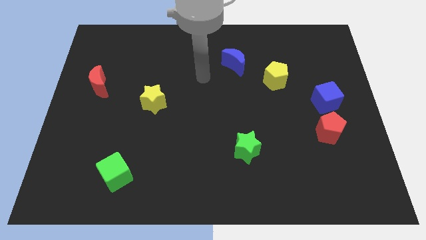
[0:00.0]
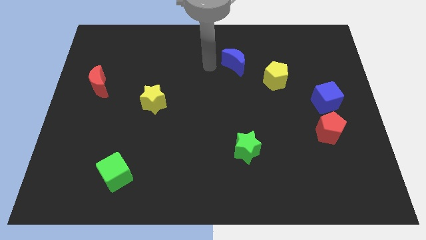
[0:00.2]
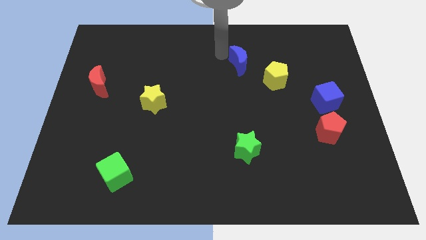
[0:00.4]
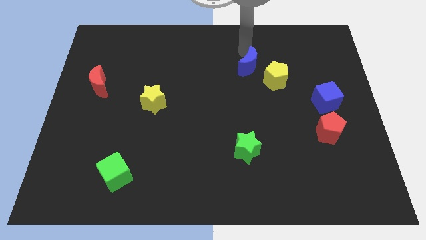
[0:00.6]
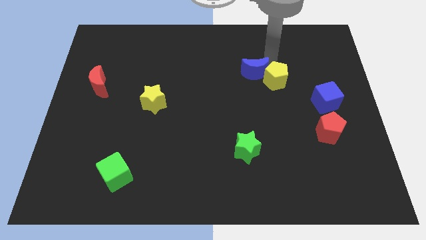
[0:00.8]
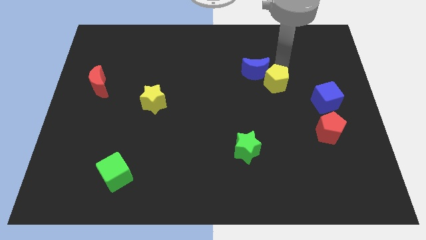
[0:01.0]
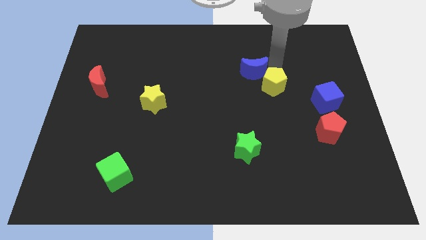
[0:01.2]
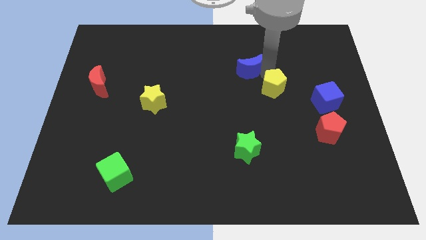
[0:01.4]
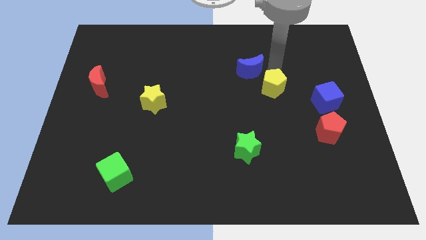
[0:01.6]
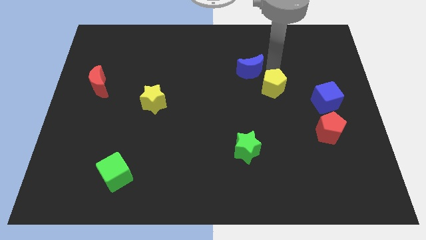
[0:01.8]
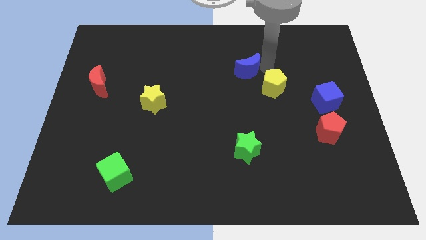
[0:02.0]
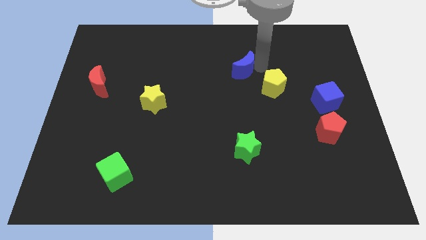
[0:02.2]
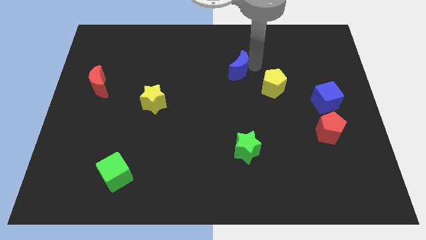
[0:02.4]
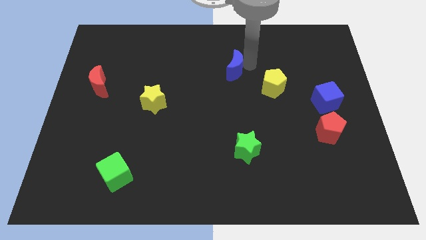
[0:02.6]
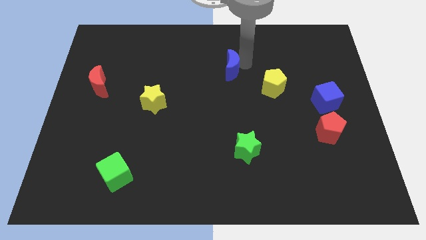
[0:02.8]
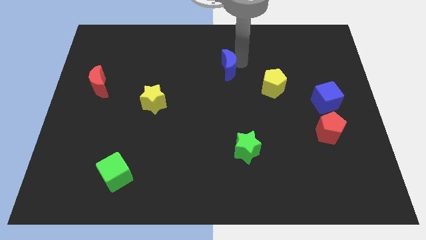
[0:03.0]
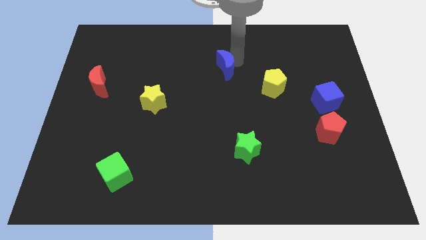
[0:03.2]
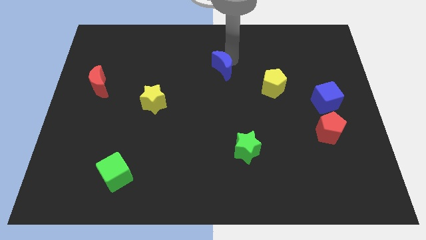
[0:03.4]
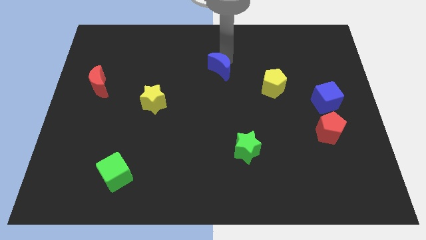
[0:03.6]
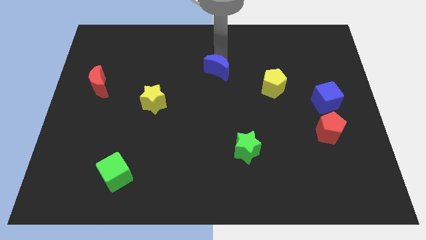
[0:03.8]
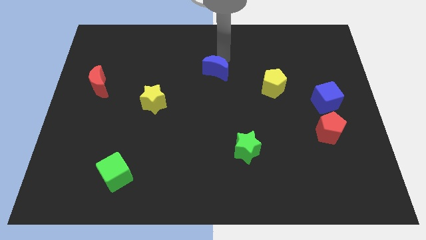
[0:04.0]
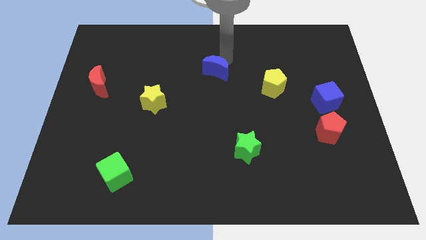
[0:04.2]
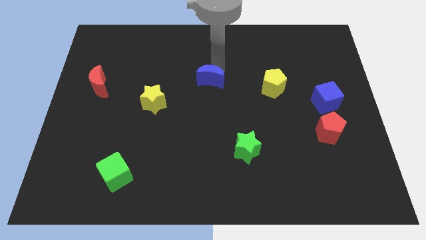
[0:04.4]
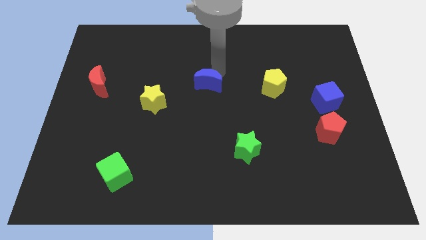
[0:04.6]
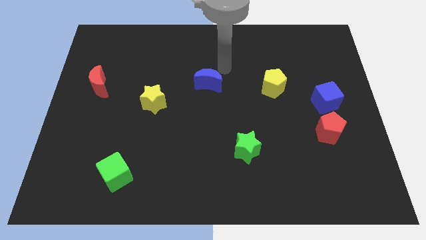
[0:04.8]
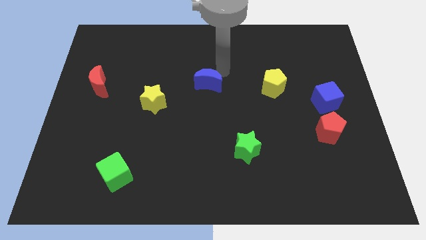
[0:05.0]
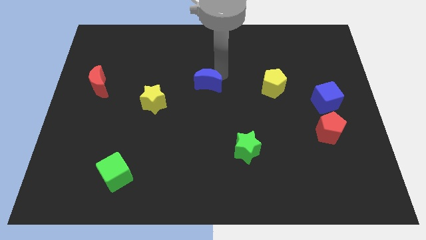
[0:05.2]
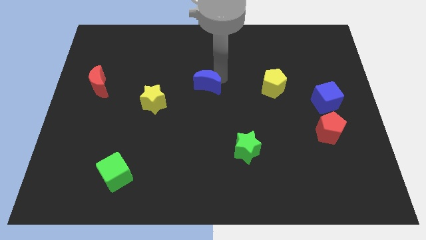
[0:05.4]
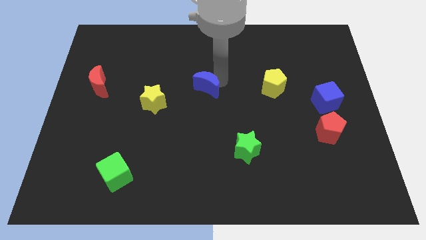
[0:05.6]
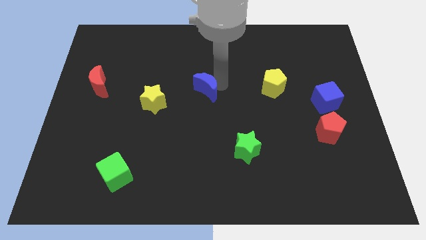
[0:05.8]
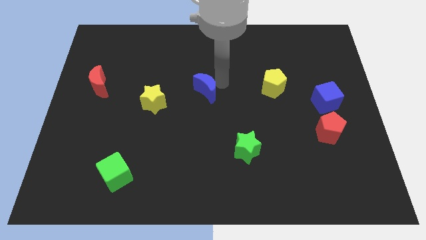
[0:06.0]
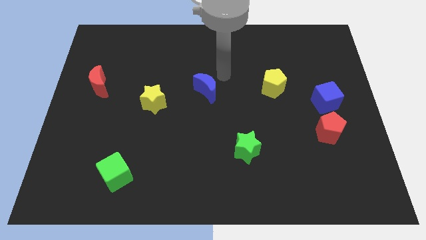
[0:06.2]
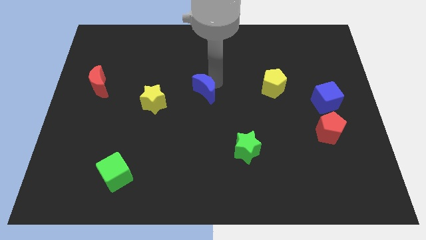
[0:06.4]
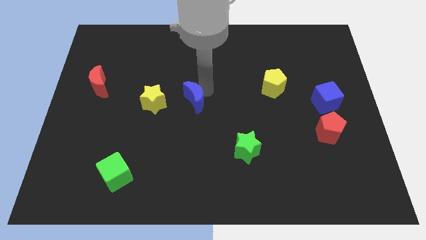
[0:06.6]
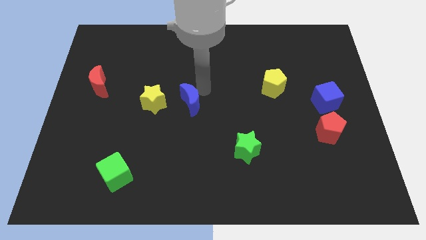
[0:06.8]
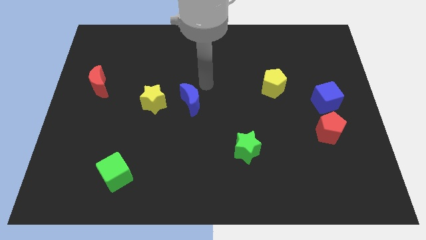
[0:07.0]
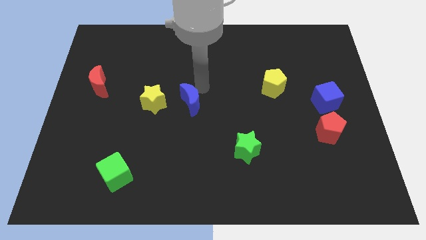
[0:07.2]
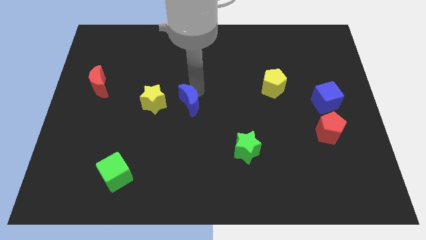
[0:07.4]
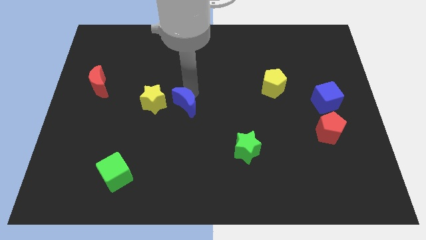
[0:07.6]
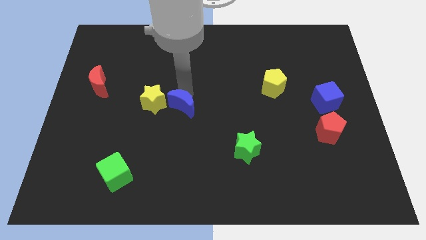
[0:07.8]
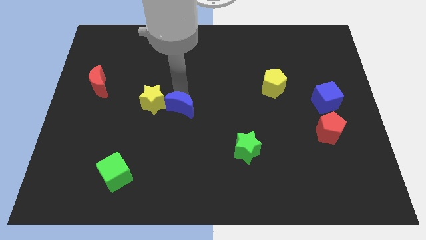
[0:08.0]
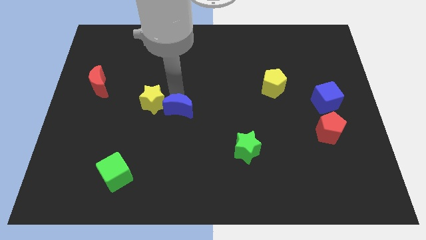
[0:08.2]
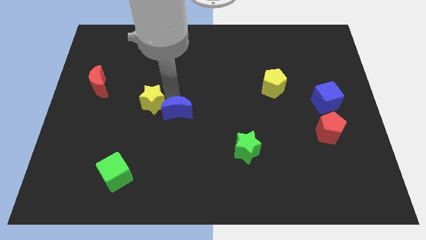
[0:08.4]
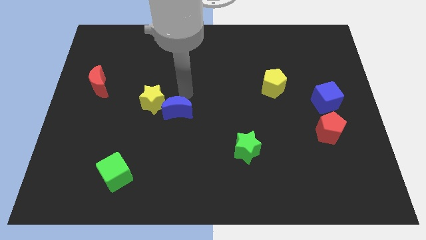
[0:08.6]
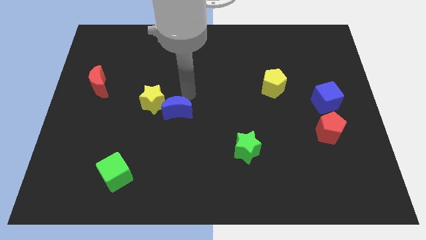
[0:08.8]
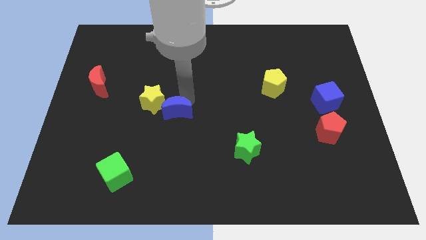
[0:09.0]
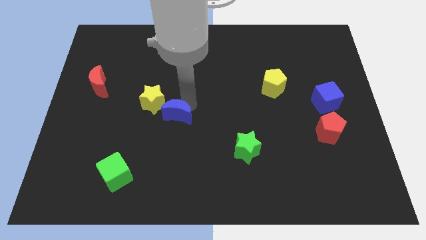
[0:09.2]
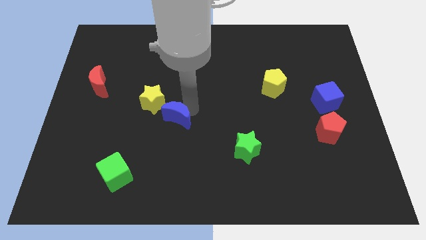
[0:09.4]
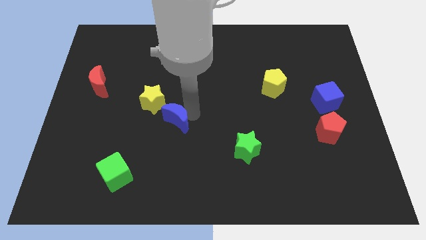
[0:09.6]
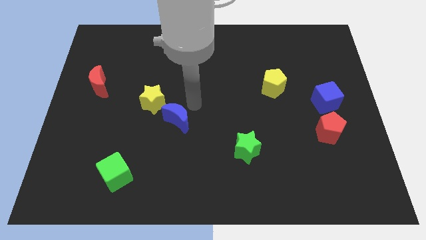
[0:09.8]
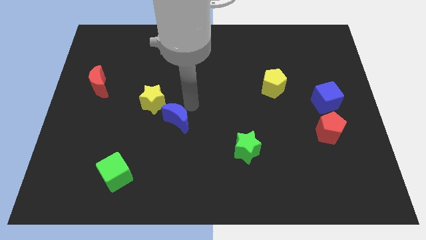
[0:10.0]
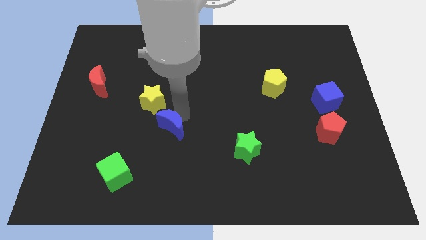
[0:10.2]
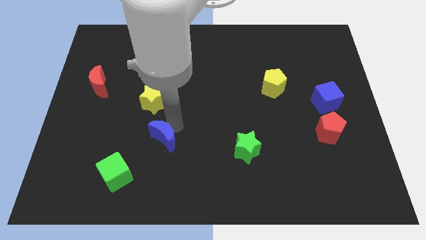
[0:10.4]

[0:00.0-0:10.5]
slide the blue moon to the top right of the green cube

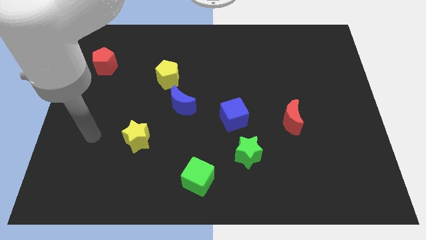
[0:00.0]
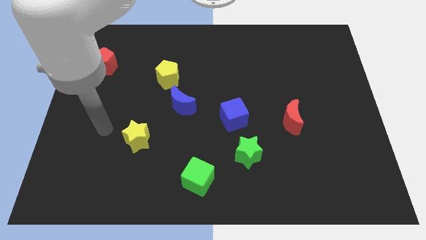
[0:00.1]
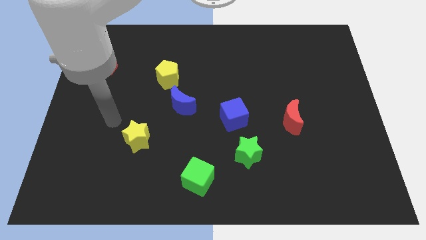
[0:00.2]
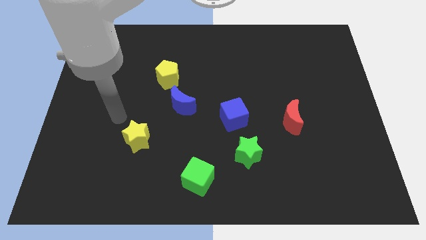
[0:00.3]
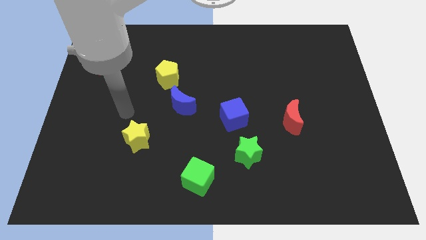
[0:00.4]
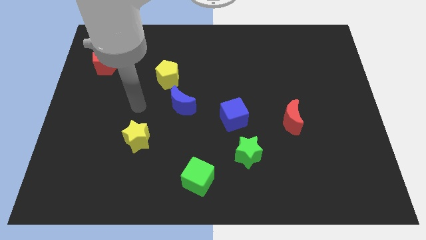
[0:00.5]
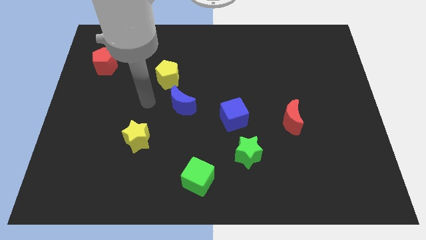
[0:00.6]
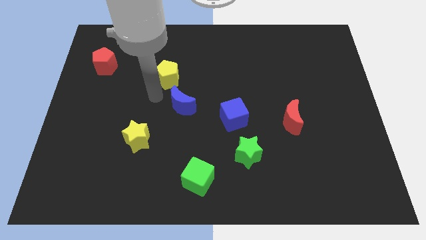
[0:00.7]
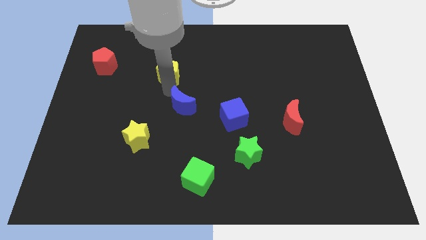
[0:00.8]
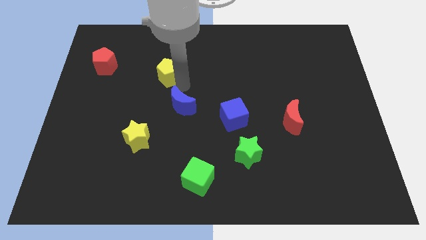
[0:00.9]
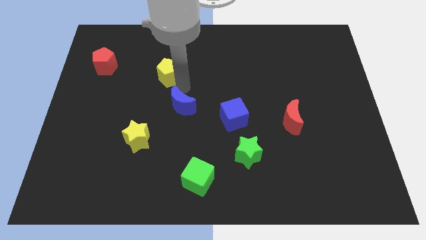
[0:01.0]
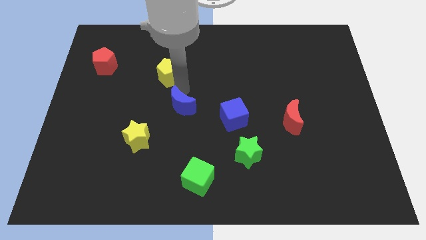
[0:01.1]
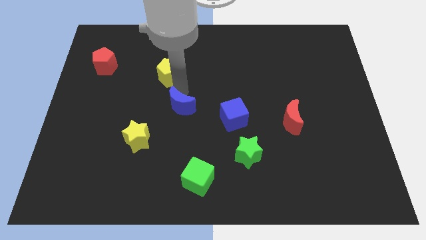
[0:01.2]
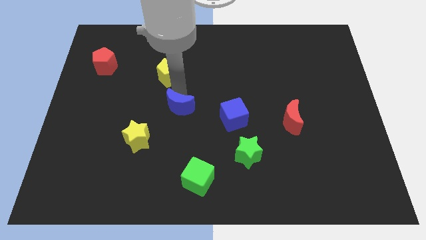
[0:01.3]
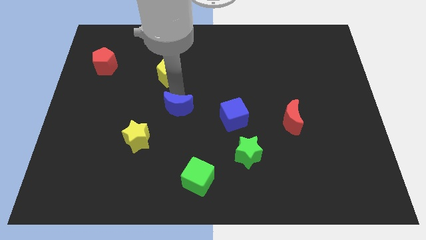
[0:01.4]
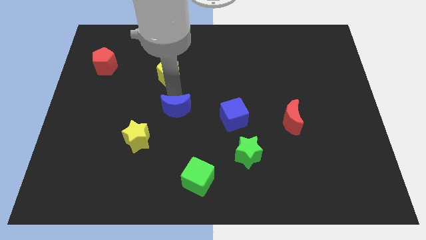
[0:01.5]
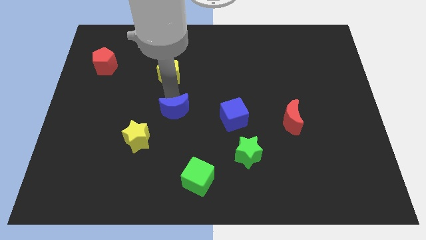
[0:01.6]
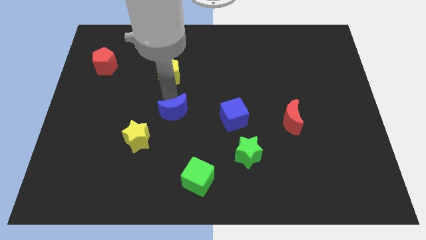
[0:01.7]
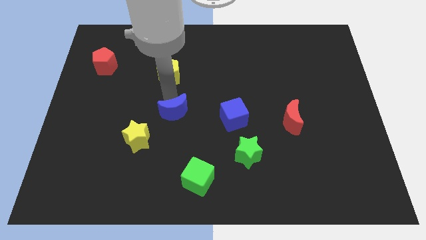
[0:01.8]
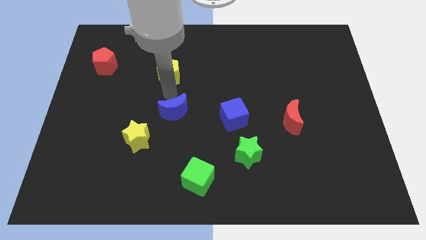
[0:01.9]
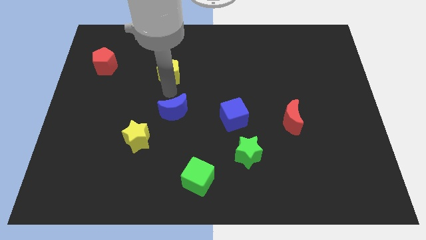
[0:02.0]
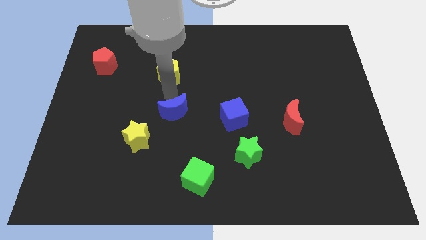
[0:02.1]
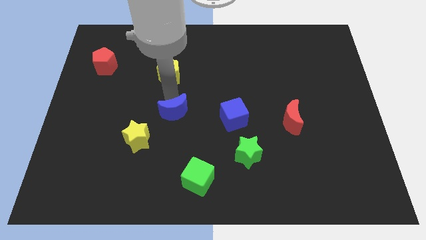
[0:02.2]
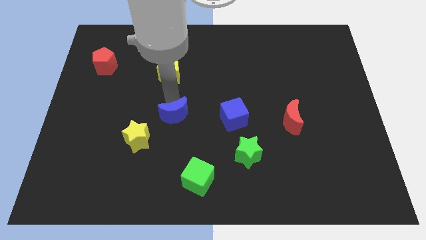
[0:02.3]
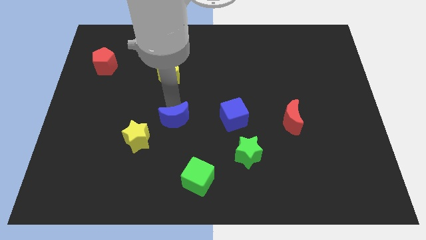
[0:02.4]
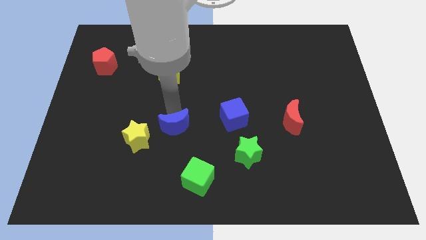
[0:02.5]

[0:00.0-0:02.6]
slide the blue moon to the right of the yellow star
